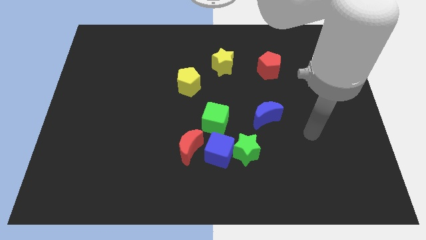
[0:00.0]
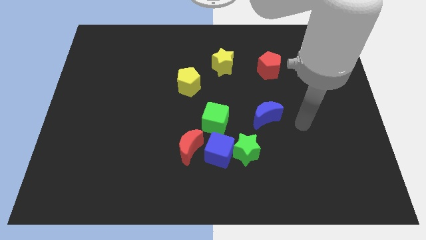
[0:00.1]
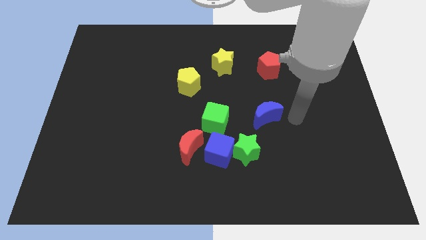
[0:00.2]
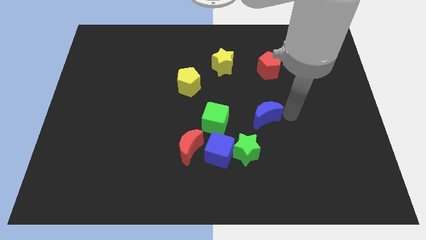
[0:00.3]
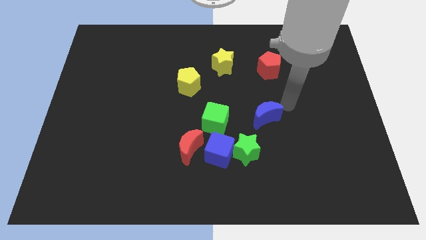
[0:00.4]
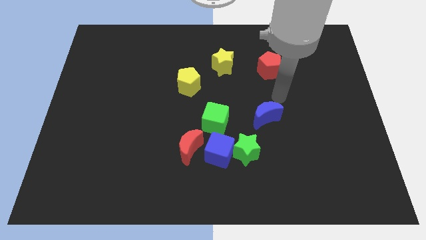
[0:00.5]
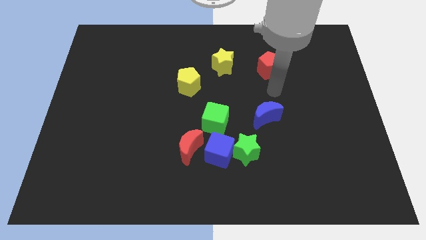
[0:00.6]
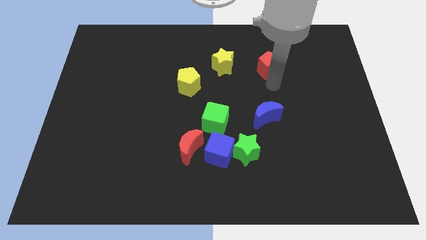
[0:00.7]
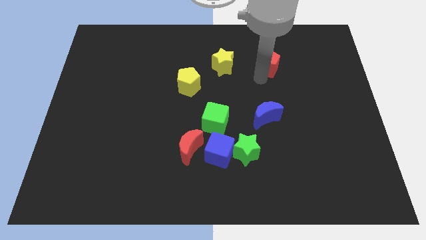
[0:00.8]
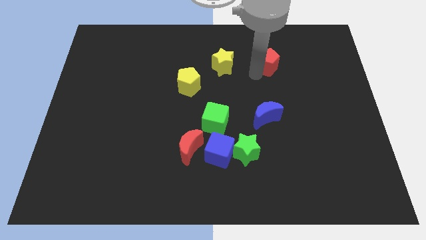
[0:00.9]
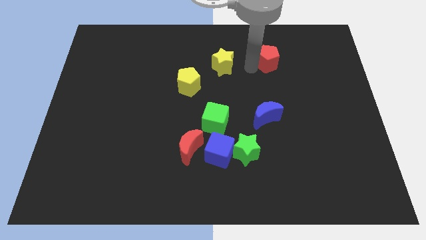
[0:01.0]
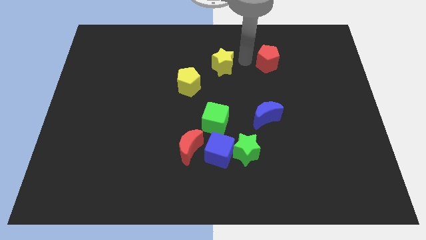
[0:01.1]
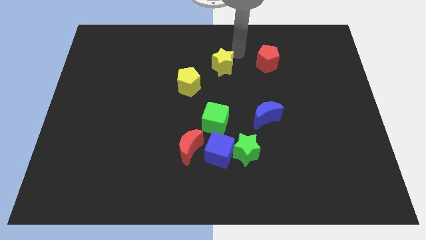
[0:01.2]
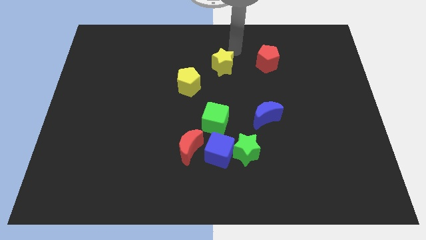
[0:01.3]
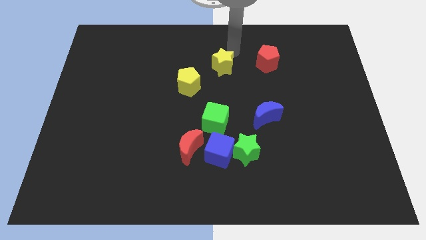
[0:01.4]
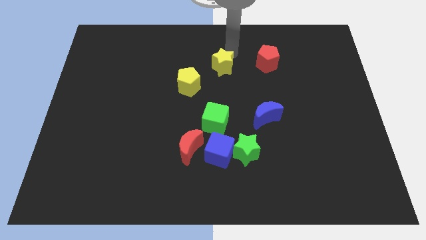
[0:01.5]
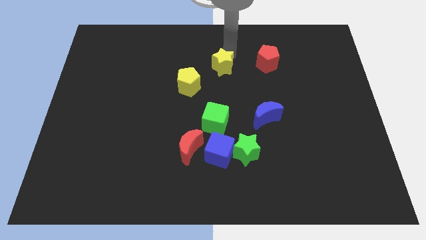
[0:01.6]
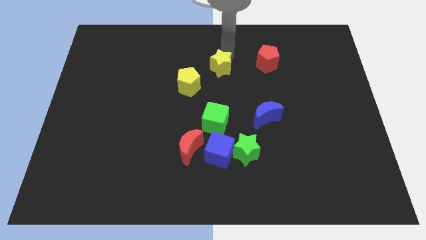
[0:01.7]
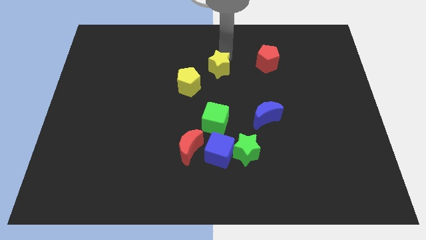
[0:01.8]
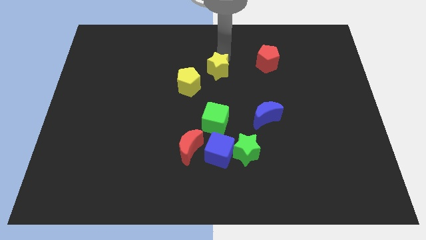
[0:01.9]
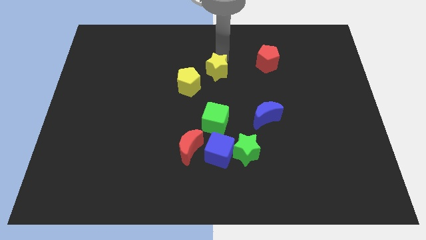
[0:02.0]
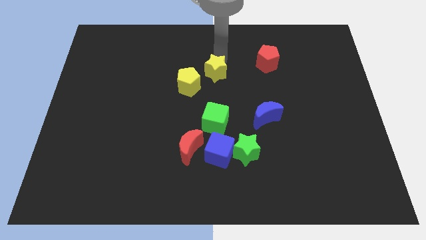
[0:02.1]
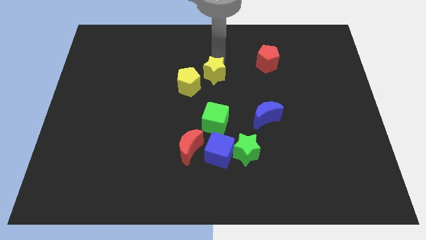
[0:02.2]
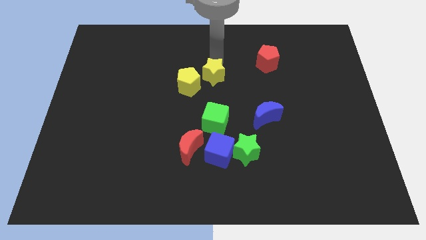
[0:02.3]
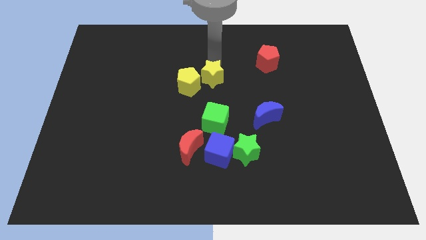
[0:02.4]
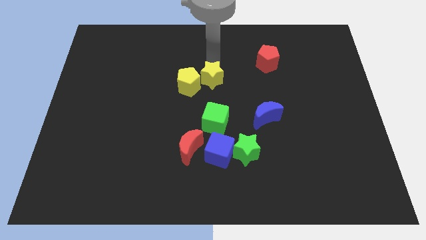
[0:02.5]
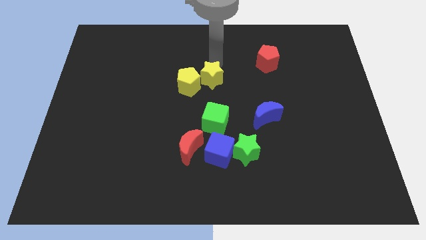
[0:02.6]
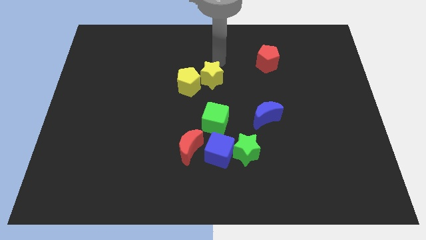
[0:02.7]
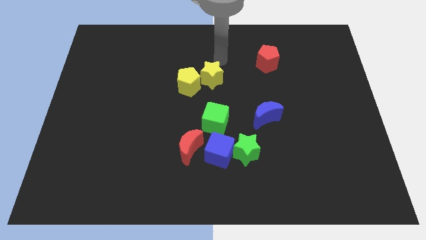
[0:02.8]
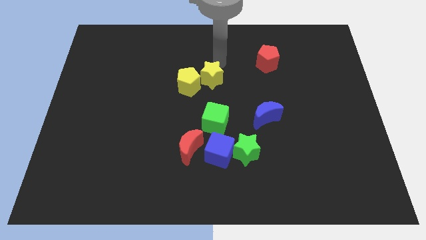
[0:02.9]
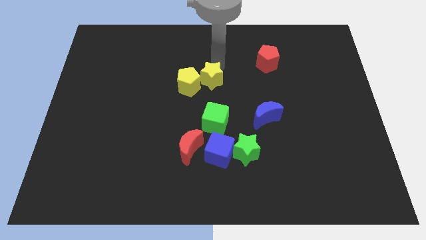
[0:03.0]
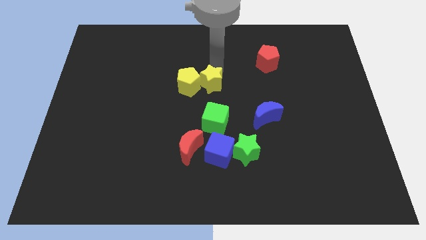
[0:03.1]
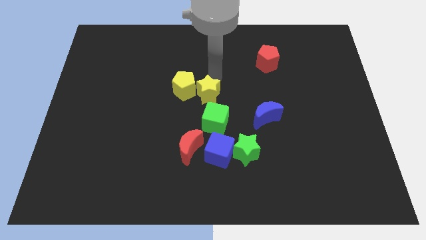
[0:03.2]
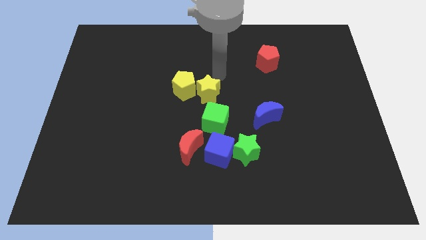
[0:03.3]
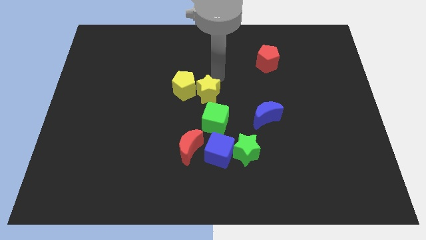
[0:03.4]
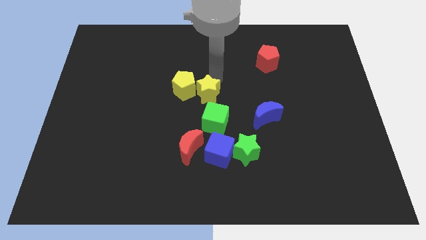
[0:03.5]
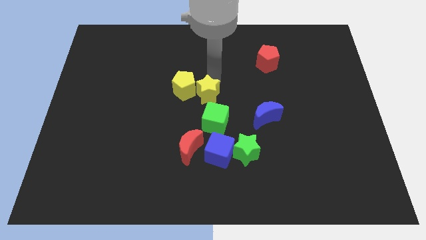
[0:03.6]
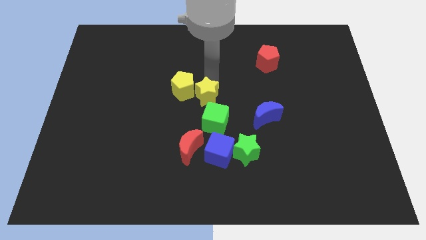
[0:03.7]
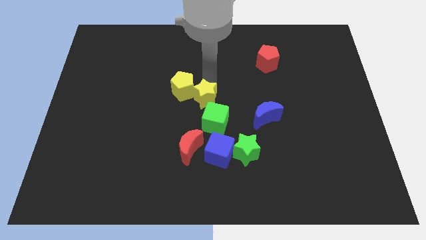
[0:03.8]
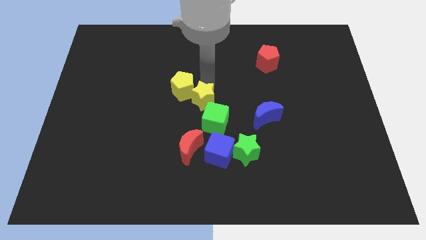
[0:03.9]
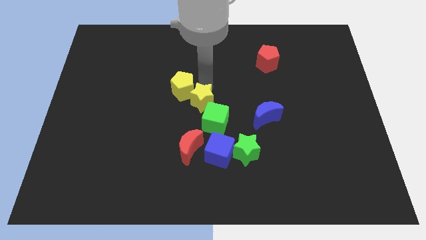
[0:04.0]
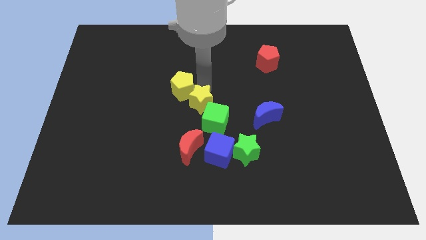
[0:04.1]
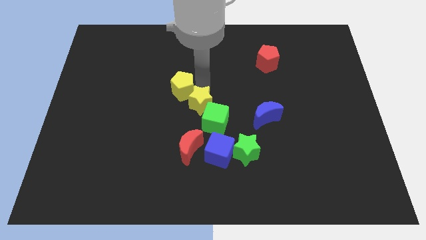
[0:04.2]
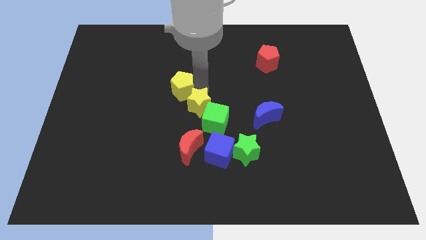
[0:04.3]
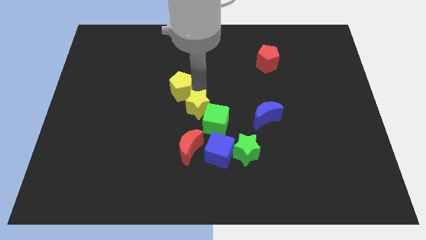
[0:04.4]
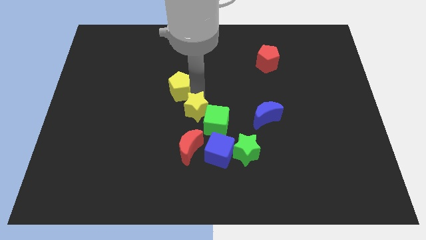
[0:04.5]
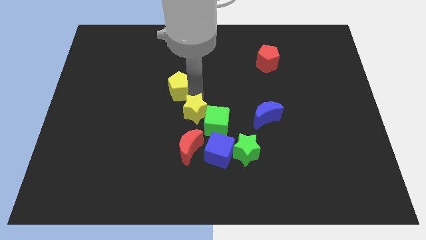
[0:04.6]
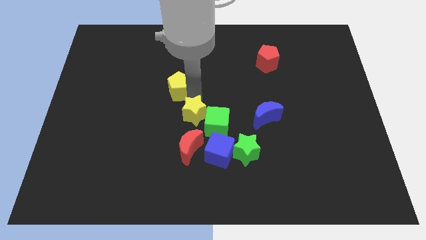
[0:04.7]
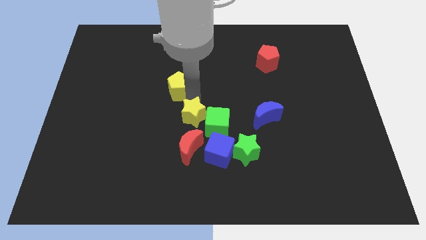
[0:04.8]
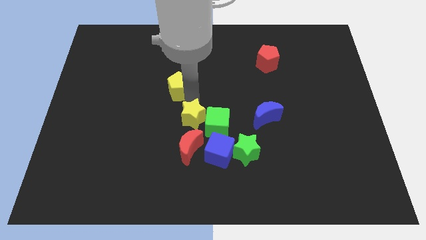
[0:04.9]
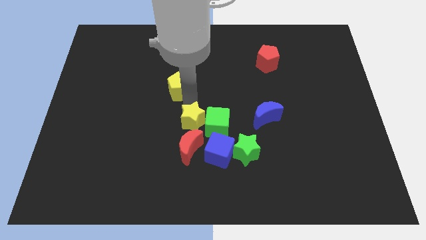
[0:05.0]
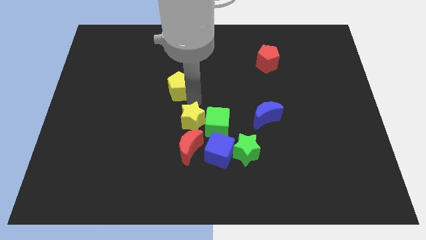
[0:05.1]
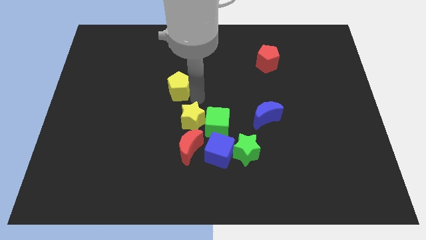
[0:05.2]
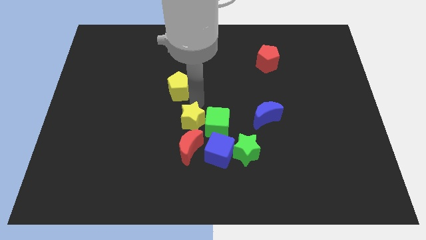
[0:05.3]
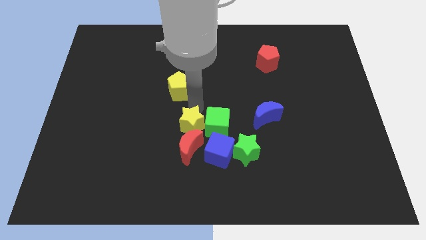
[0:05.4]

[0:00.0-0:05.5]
move the yellow star towards the red moon

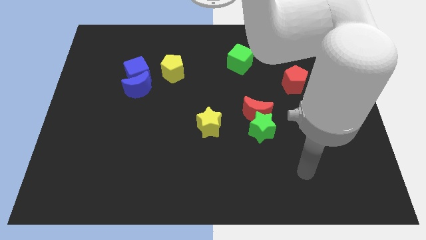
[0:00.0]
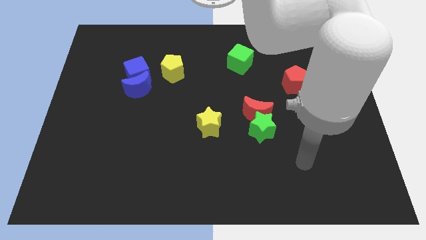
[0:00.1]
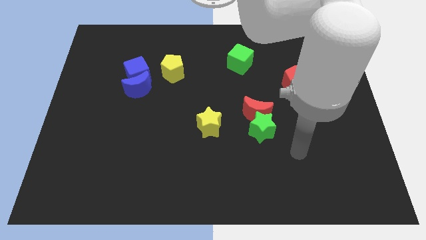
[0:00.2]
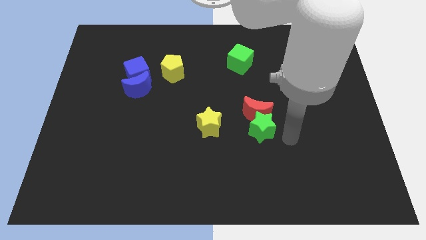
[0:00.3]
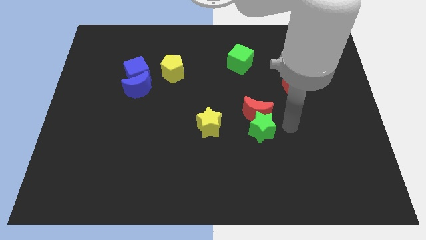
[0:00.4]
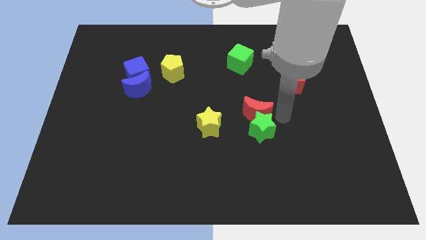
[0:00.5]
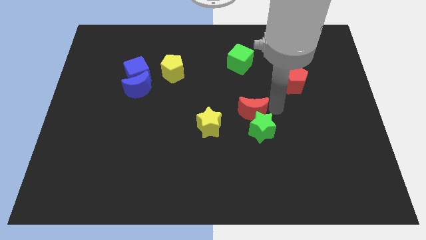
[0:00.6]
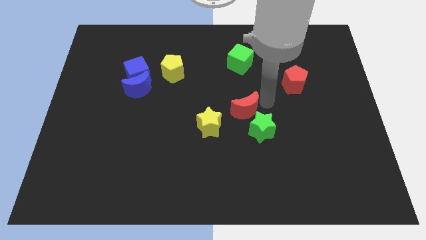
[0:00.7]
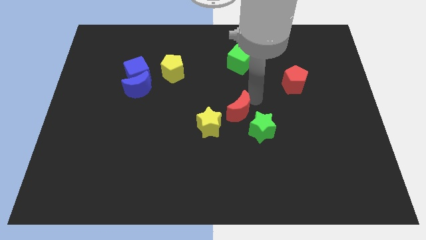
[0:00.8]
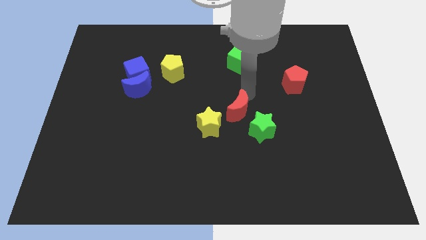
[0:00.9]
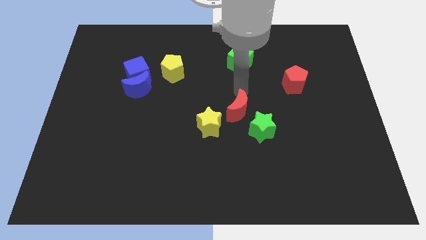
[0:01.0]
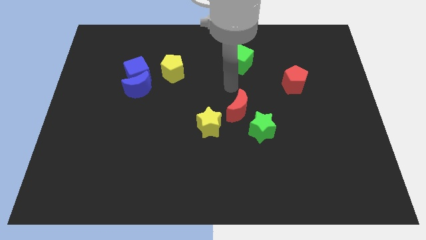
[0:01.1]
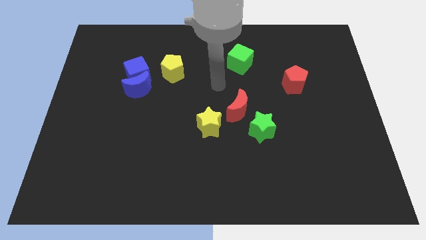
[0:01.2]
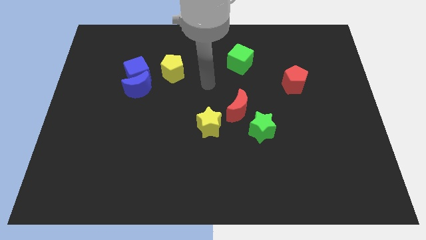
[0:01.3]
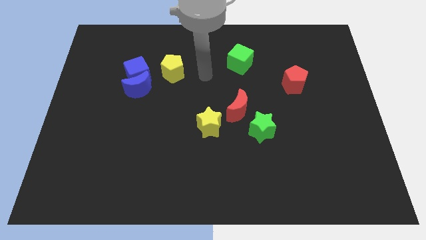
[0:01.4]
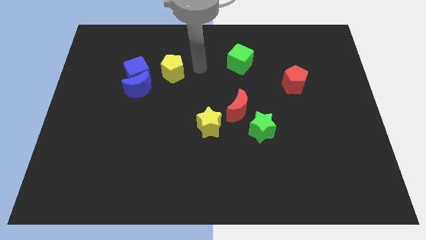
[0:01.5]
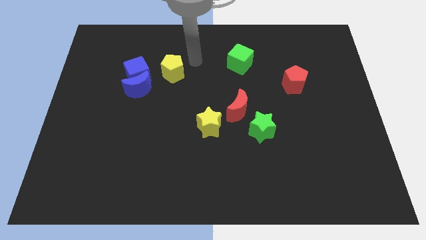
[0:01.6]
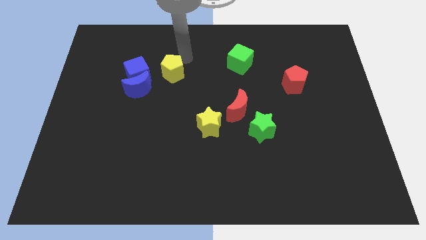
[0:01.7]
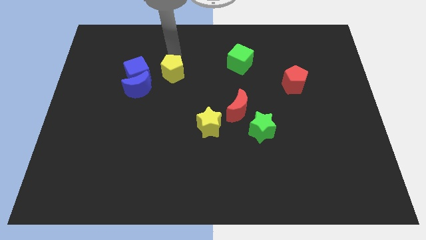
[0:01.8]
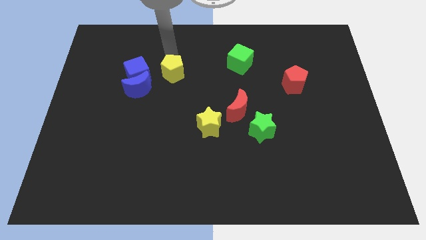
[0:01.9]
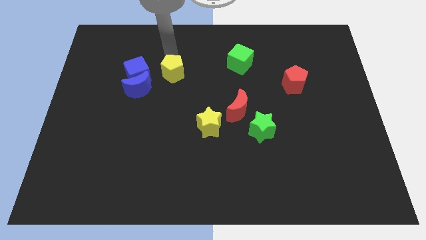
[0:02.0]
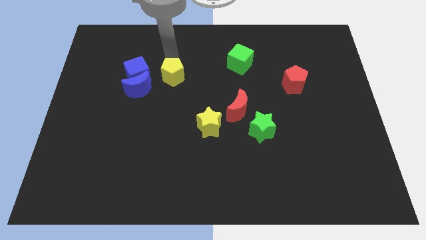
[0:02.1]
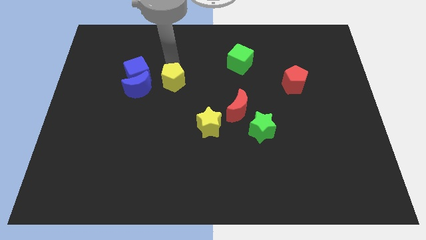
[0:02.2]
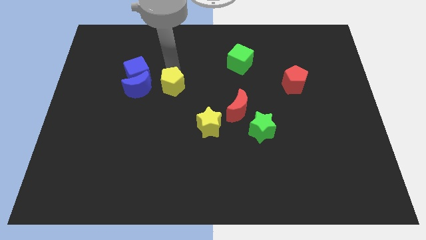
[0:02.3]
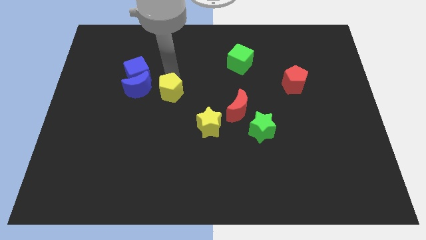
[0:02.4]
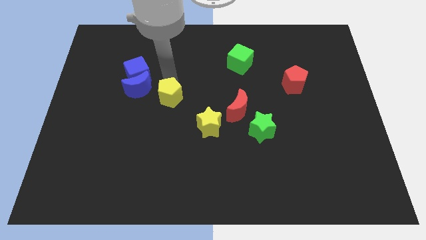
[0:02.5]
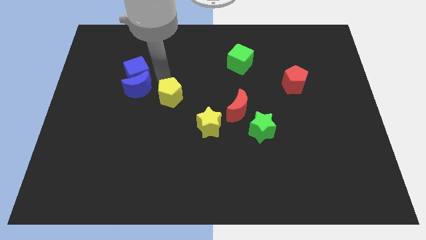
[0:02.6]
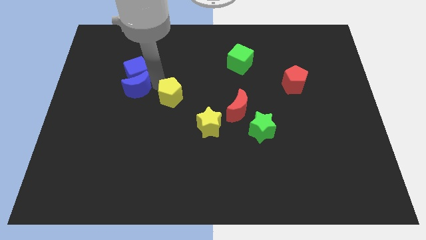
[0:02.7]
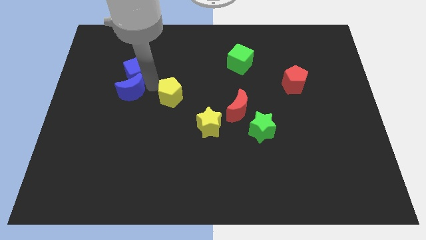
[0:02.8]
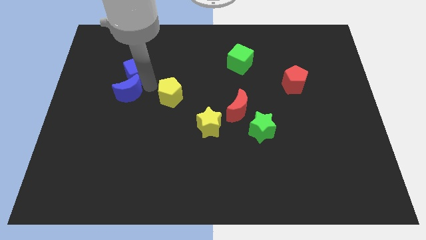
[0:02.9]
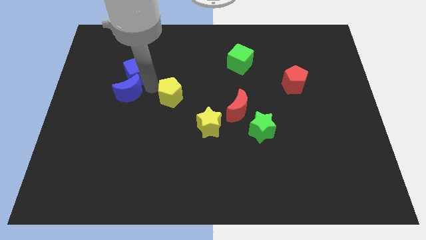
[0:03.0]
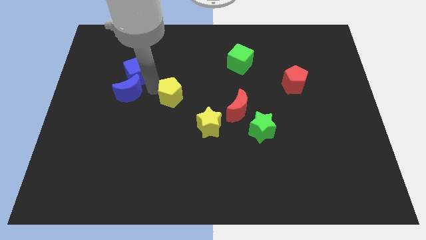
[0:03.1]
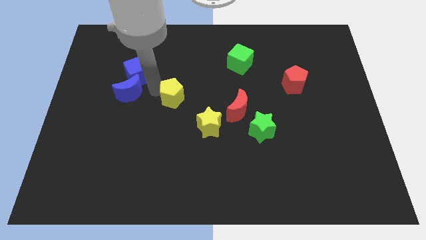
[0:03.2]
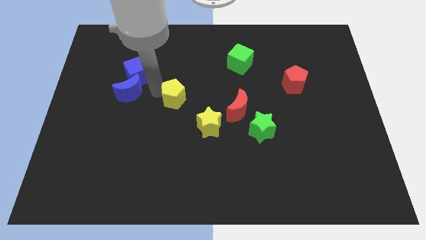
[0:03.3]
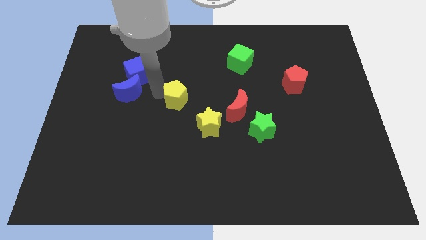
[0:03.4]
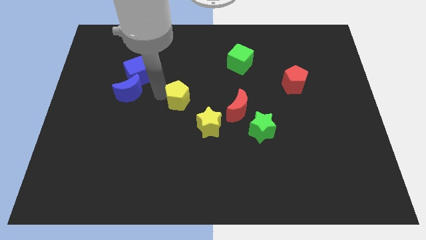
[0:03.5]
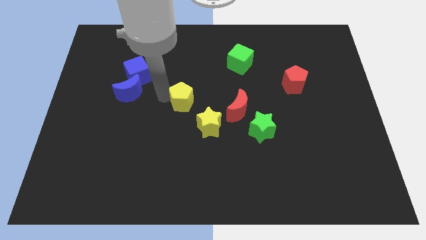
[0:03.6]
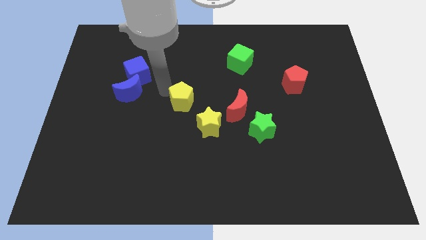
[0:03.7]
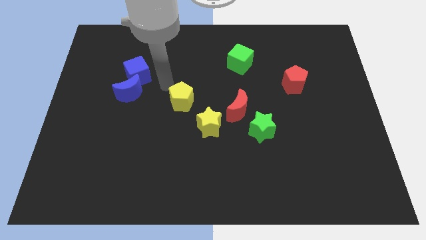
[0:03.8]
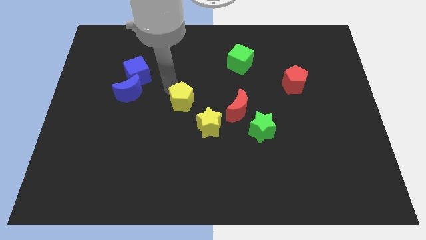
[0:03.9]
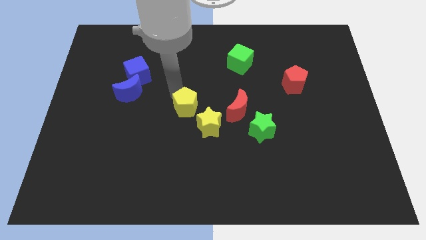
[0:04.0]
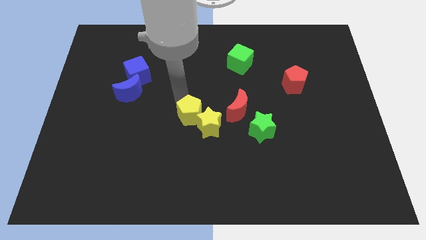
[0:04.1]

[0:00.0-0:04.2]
push the yellow pentagon towards the yellow star
